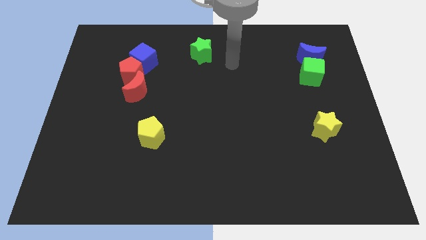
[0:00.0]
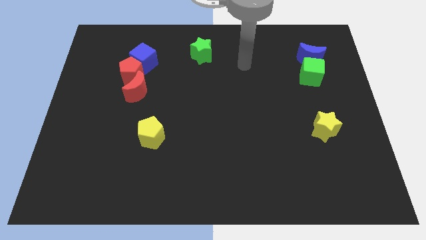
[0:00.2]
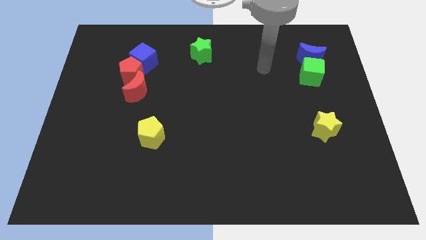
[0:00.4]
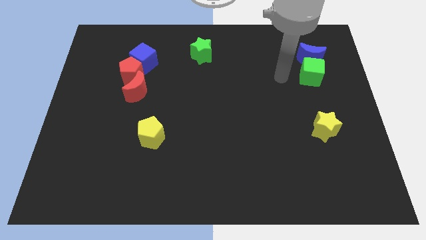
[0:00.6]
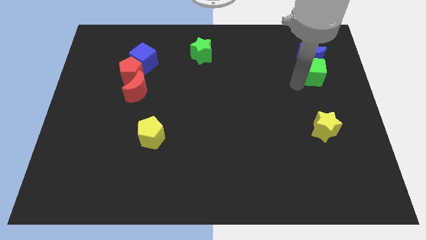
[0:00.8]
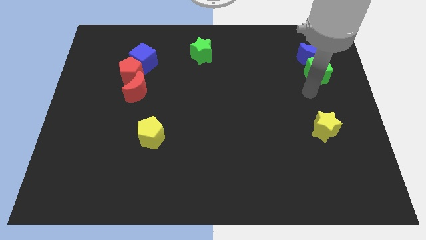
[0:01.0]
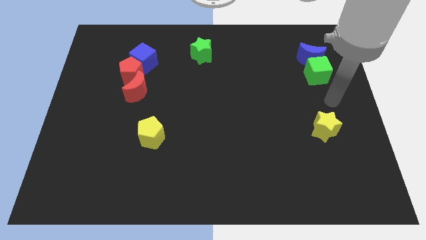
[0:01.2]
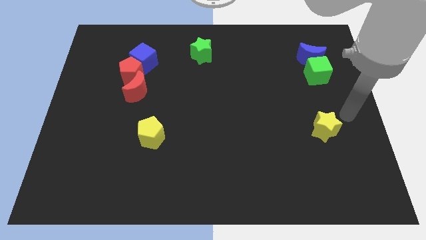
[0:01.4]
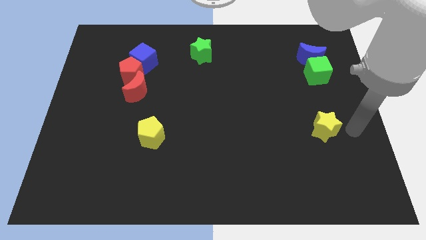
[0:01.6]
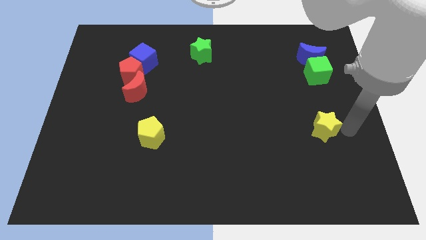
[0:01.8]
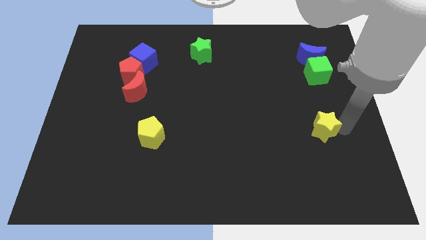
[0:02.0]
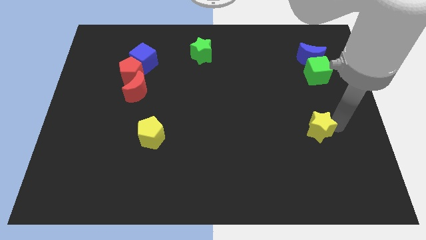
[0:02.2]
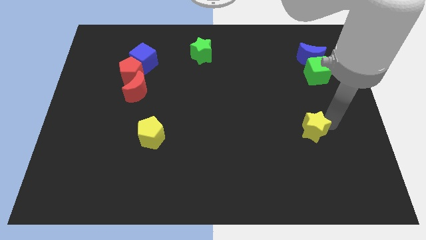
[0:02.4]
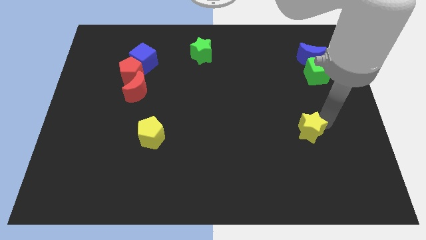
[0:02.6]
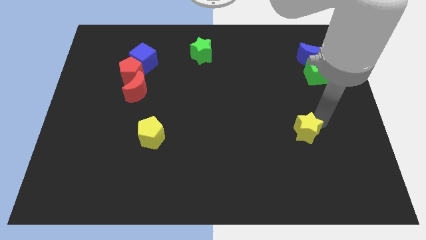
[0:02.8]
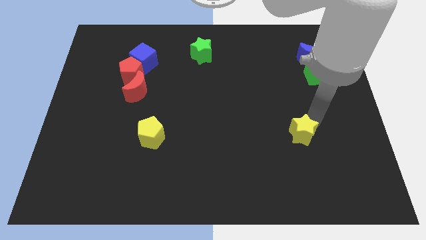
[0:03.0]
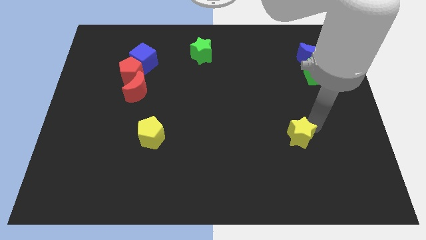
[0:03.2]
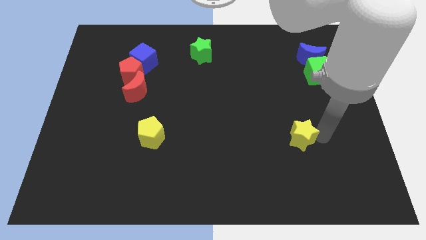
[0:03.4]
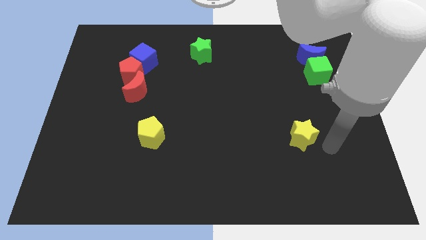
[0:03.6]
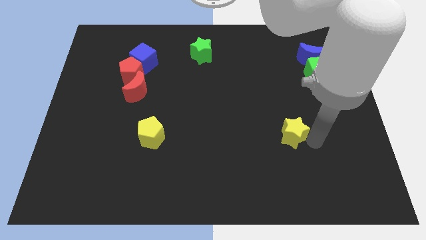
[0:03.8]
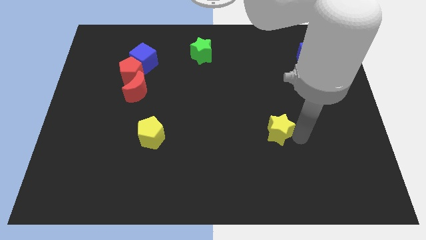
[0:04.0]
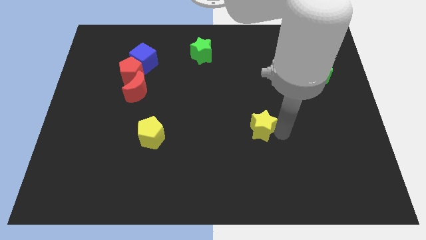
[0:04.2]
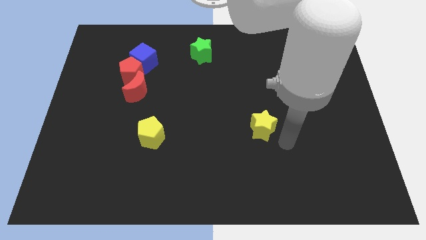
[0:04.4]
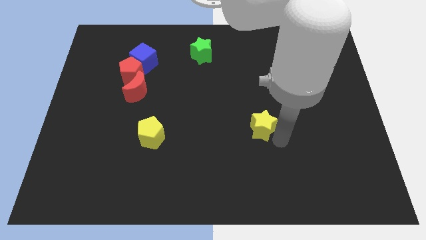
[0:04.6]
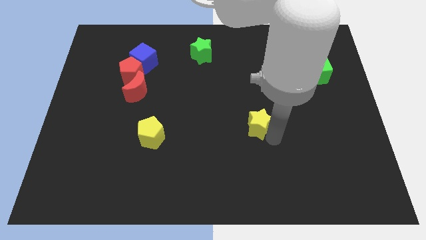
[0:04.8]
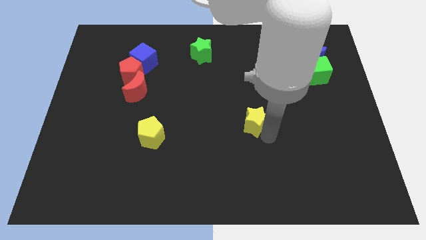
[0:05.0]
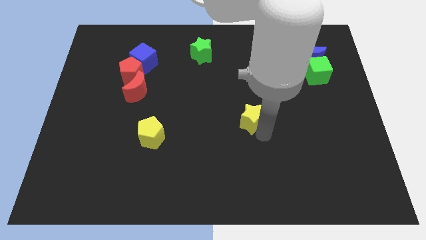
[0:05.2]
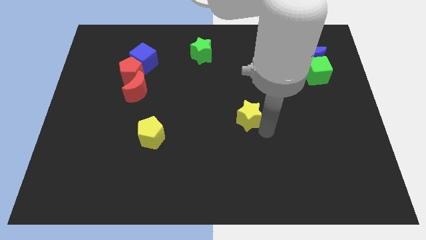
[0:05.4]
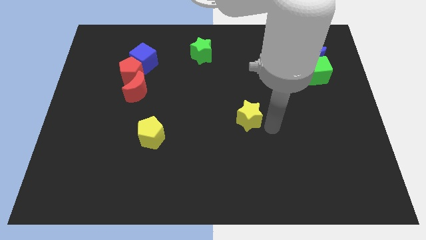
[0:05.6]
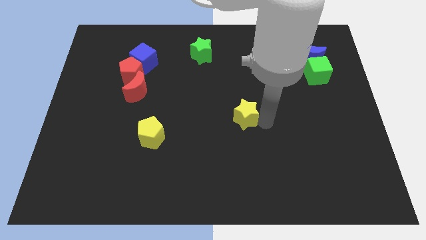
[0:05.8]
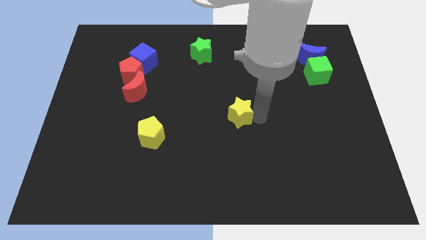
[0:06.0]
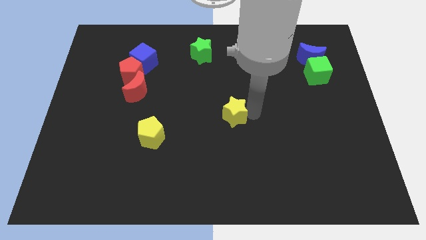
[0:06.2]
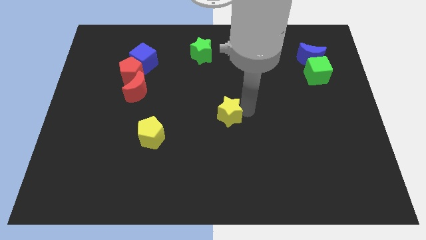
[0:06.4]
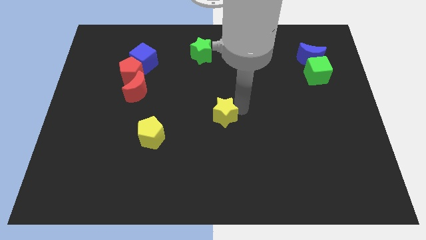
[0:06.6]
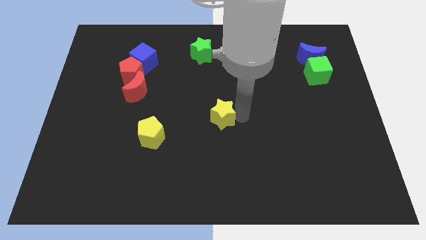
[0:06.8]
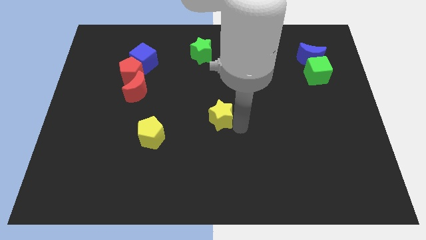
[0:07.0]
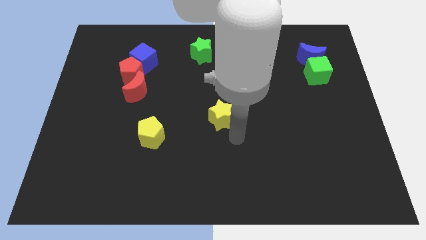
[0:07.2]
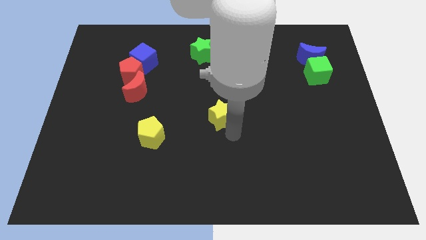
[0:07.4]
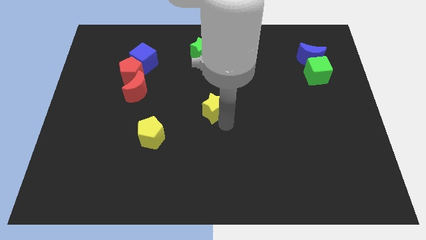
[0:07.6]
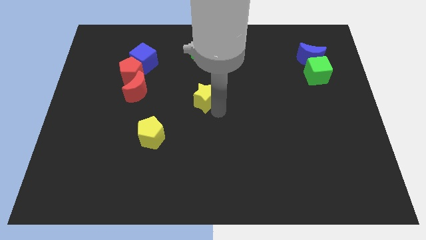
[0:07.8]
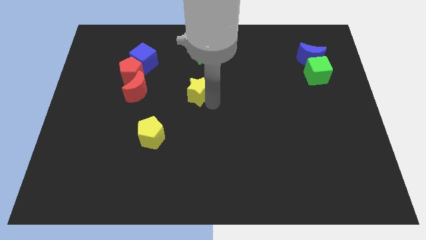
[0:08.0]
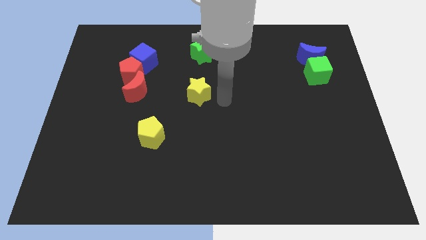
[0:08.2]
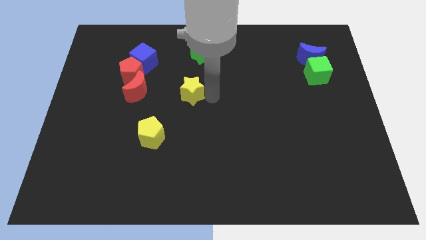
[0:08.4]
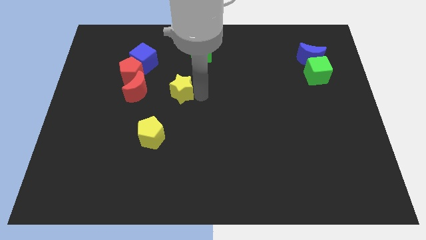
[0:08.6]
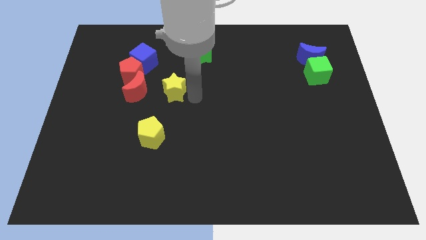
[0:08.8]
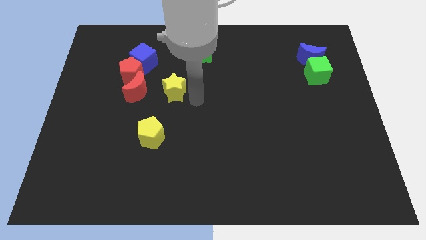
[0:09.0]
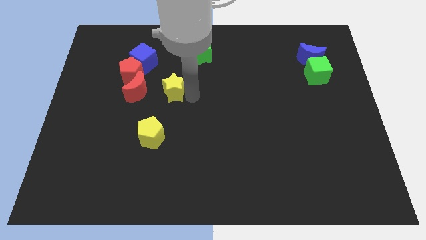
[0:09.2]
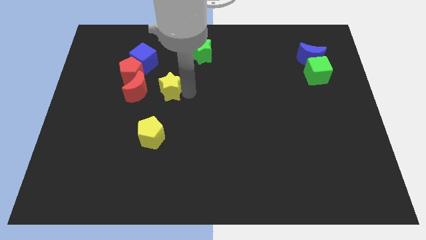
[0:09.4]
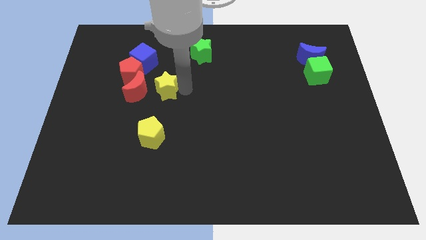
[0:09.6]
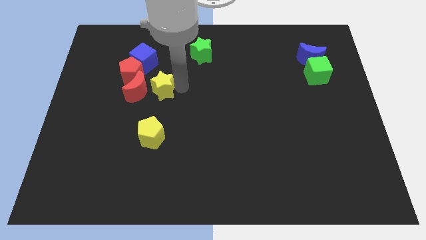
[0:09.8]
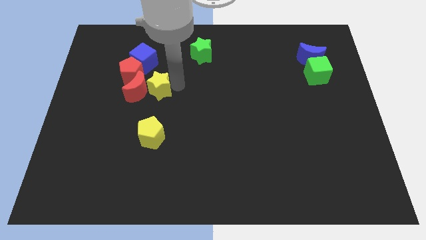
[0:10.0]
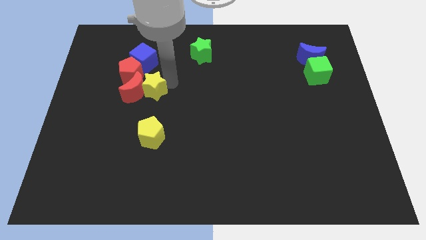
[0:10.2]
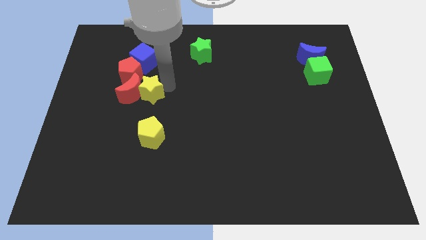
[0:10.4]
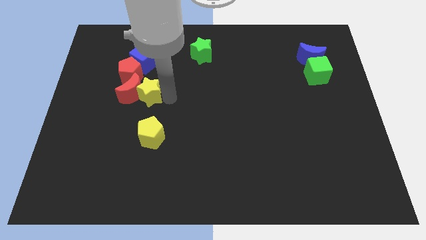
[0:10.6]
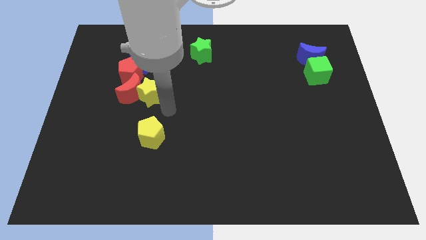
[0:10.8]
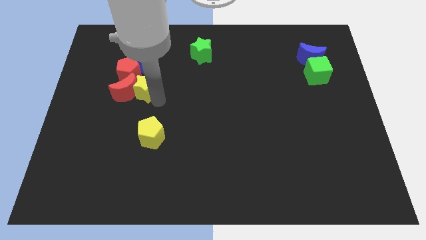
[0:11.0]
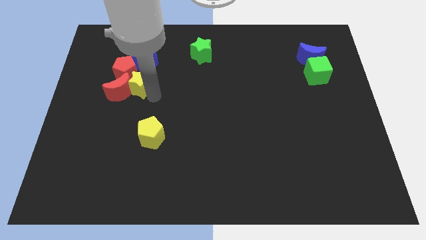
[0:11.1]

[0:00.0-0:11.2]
slide the yellow star next to the red pentagon

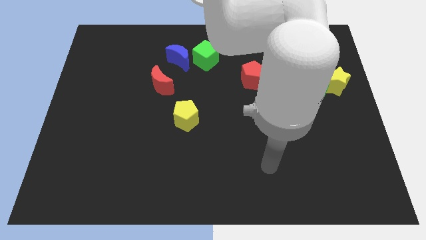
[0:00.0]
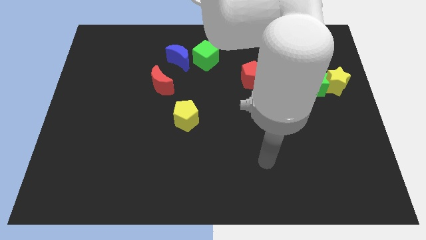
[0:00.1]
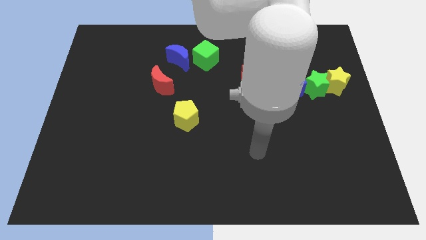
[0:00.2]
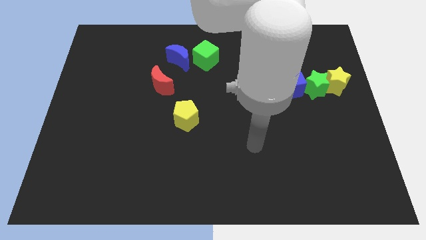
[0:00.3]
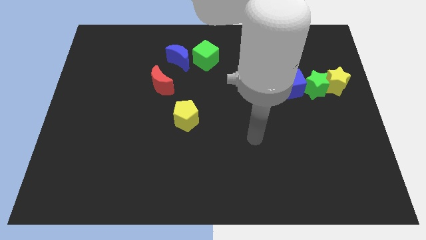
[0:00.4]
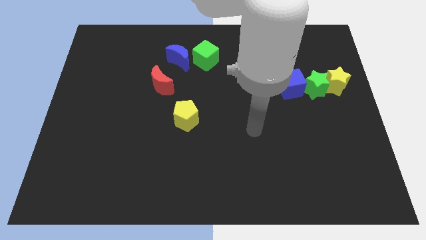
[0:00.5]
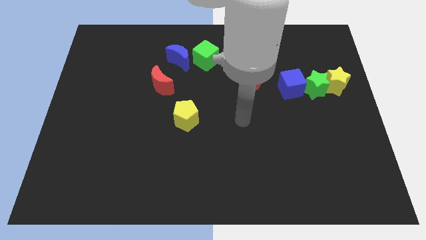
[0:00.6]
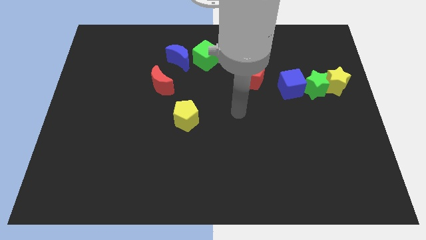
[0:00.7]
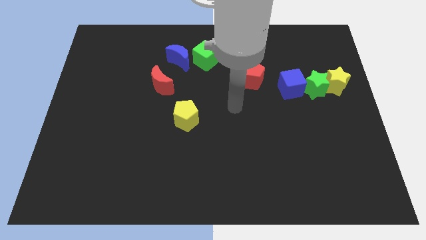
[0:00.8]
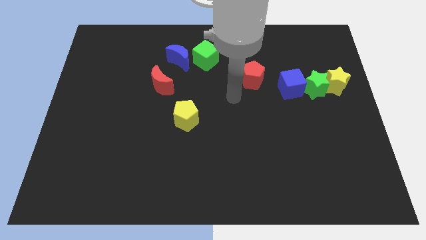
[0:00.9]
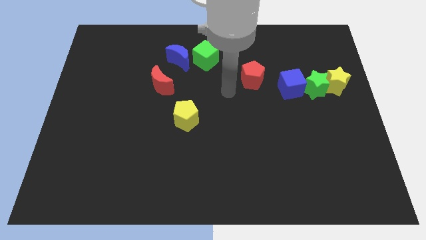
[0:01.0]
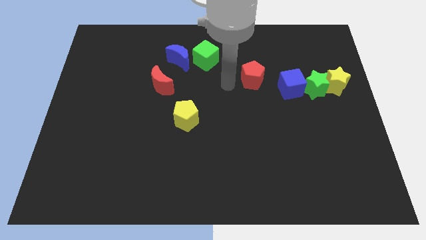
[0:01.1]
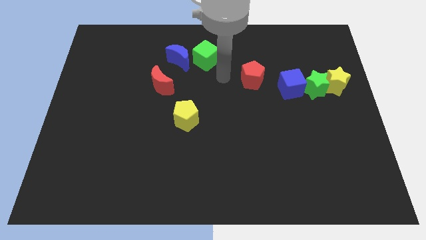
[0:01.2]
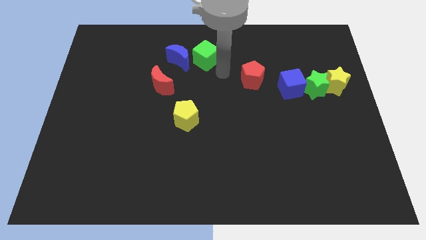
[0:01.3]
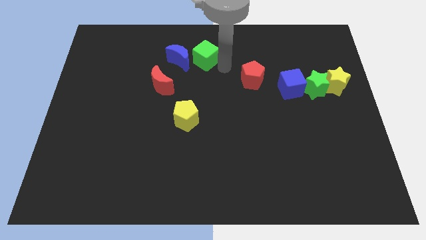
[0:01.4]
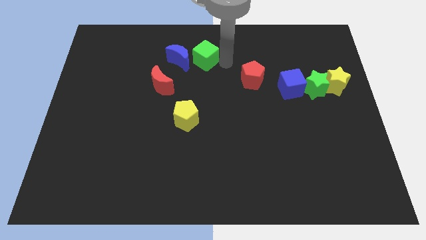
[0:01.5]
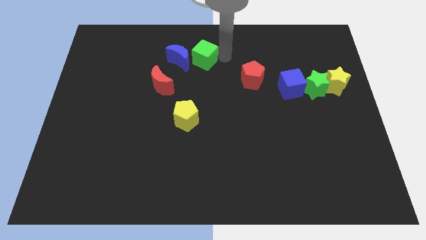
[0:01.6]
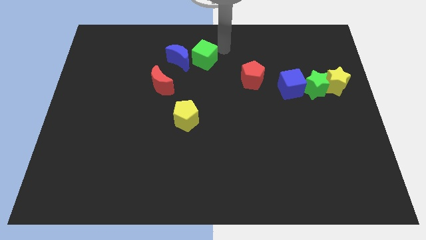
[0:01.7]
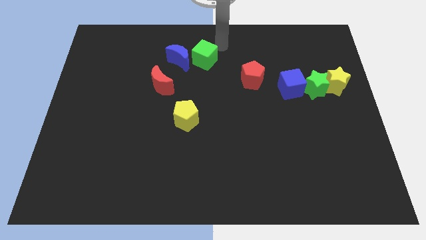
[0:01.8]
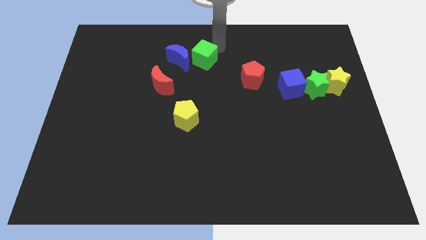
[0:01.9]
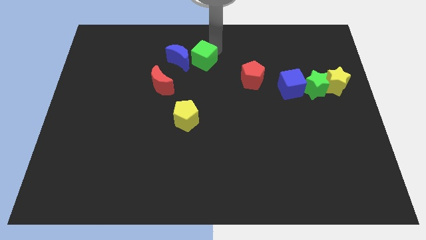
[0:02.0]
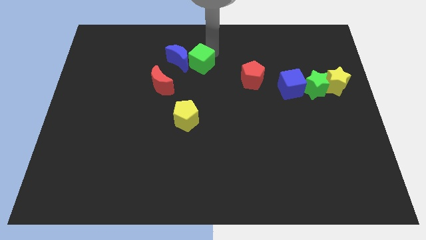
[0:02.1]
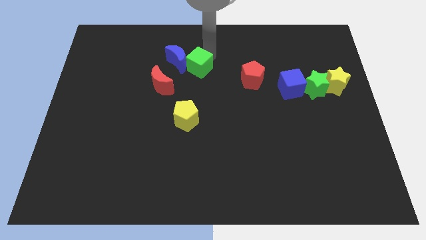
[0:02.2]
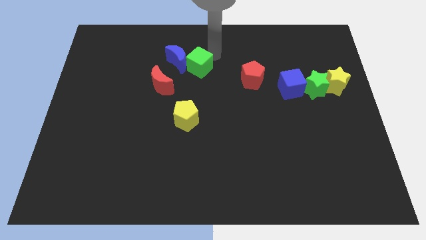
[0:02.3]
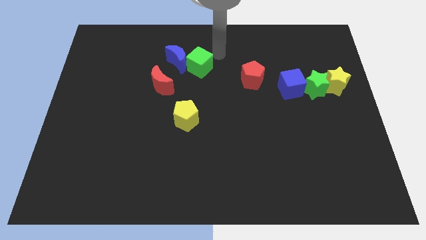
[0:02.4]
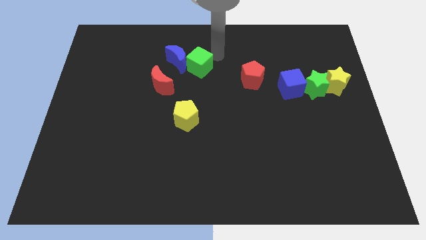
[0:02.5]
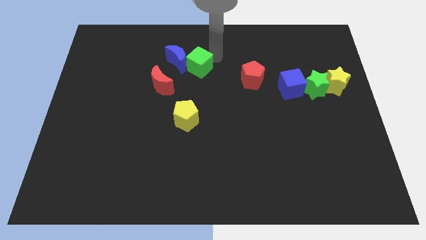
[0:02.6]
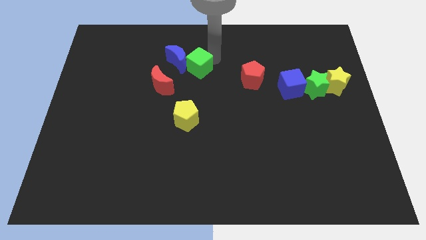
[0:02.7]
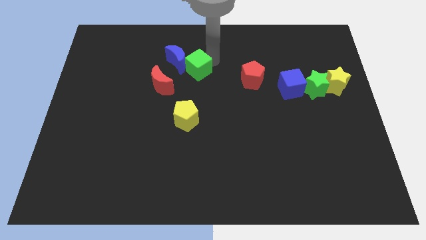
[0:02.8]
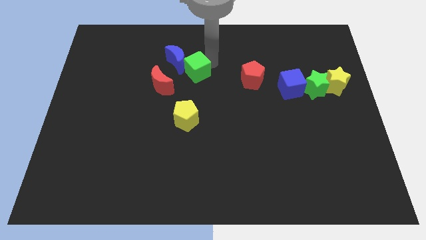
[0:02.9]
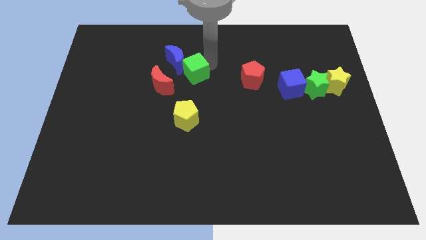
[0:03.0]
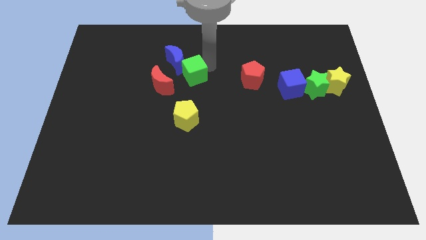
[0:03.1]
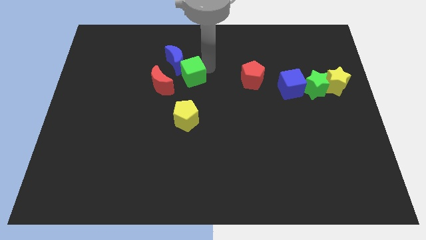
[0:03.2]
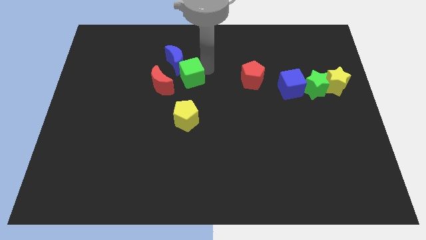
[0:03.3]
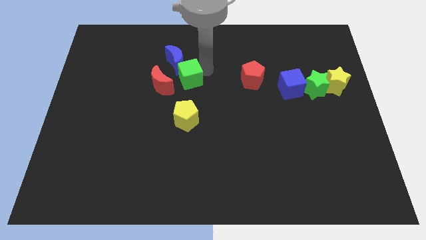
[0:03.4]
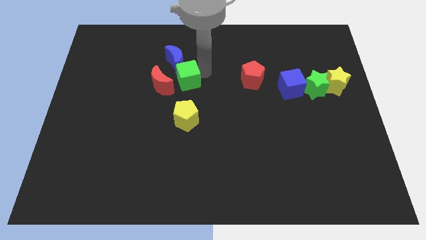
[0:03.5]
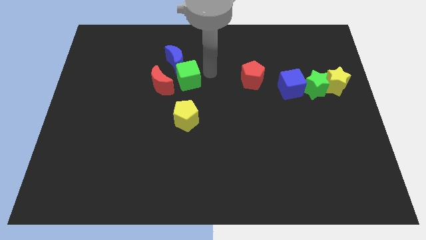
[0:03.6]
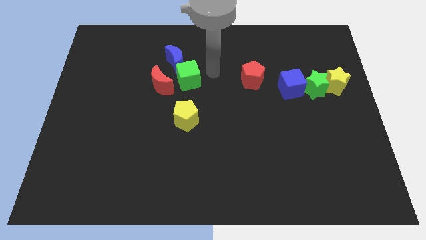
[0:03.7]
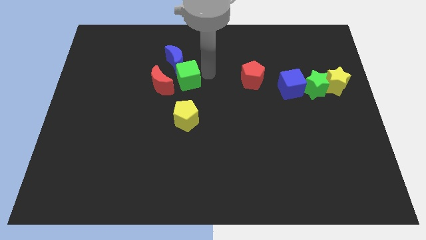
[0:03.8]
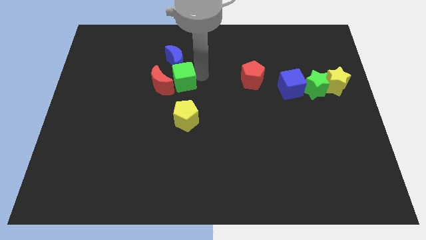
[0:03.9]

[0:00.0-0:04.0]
slide the green cube towards the red moon
